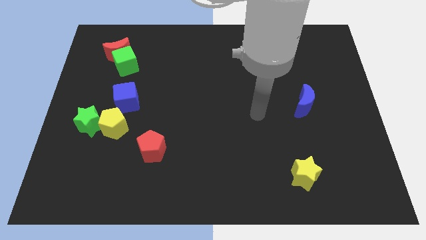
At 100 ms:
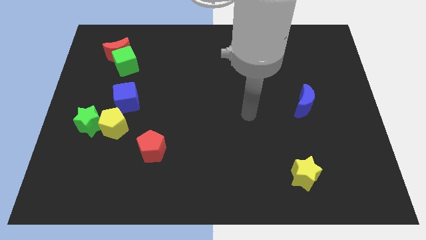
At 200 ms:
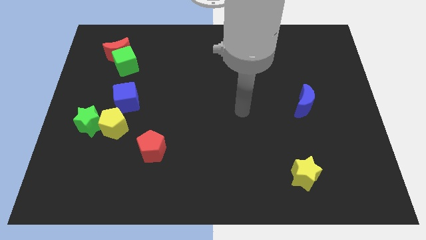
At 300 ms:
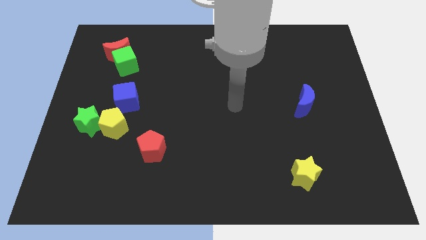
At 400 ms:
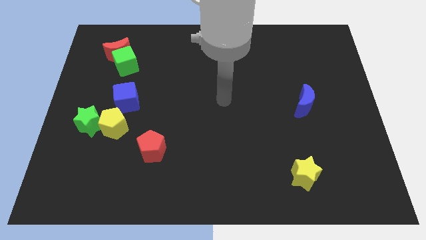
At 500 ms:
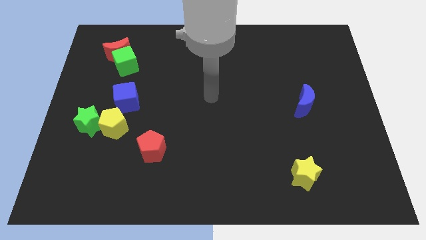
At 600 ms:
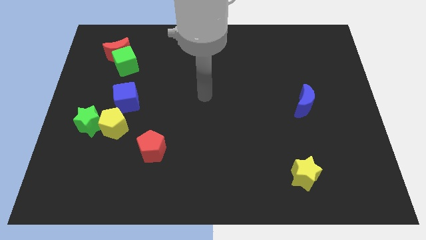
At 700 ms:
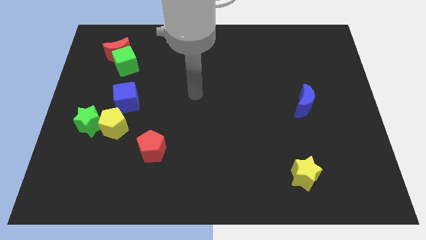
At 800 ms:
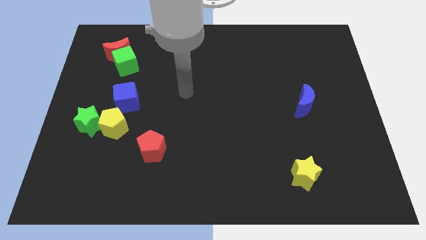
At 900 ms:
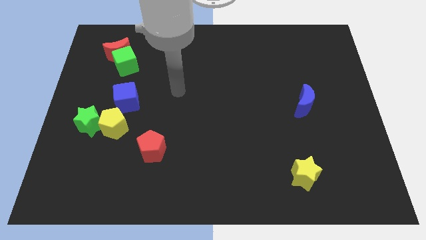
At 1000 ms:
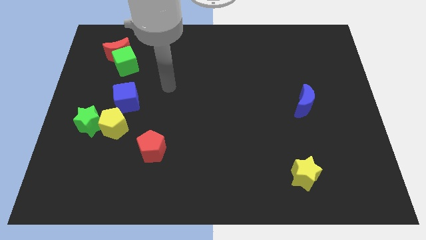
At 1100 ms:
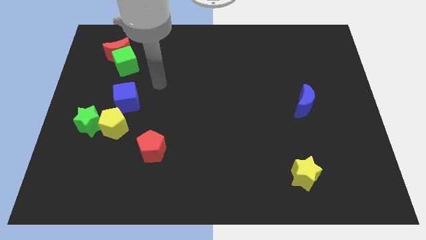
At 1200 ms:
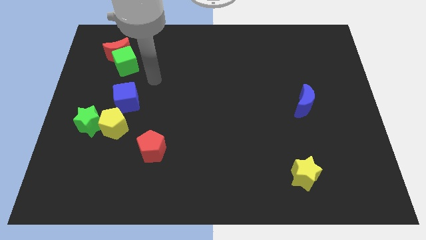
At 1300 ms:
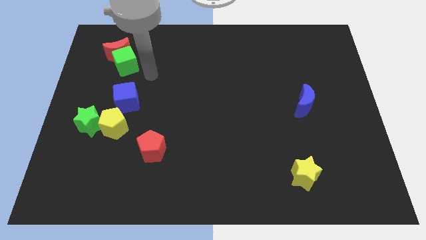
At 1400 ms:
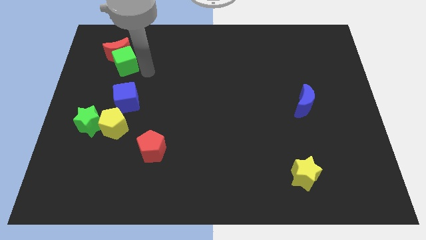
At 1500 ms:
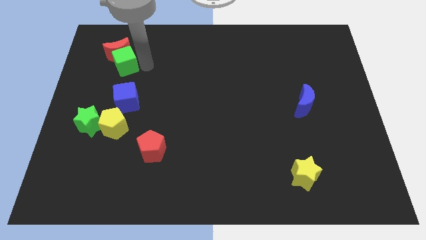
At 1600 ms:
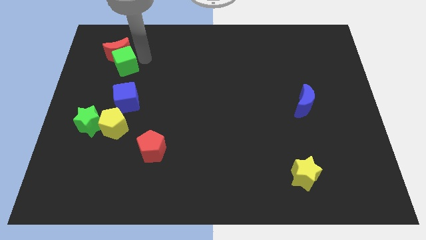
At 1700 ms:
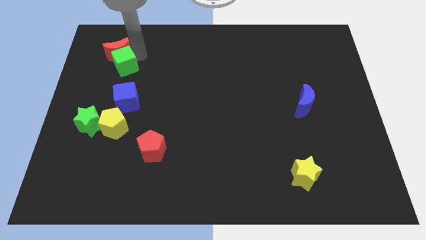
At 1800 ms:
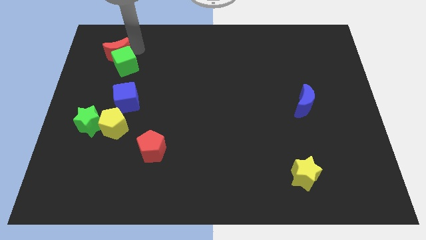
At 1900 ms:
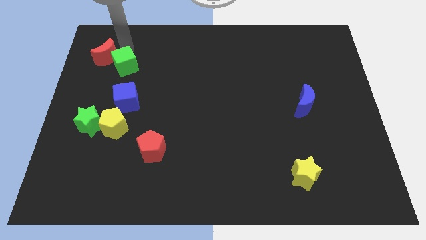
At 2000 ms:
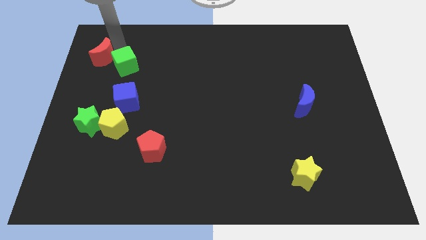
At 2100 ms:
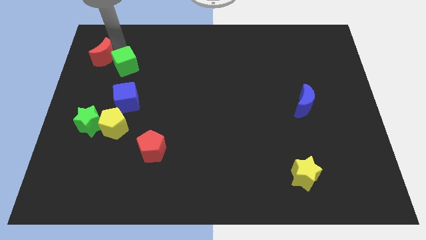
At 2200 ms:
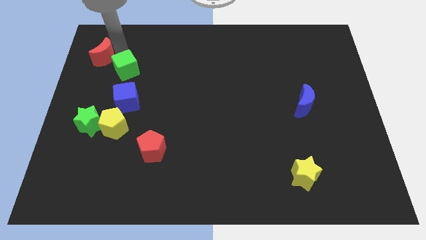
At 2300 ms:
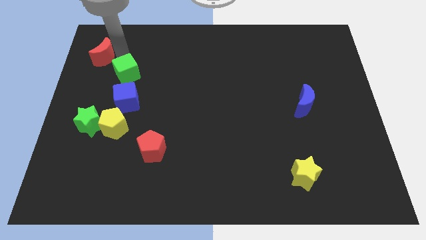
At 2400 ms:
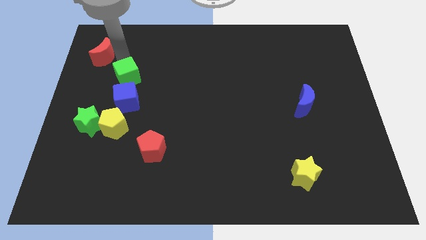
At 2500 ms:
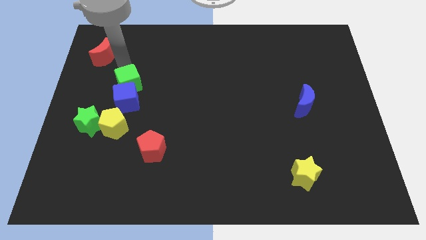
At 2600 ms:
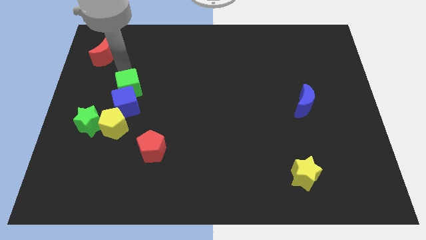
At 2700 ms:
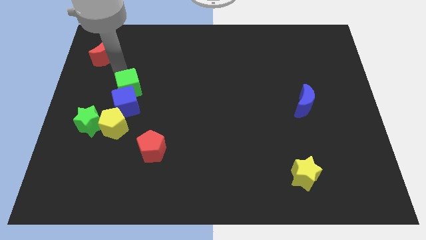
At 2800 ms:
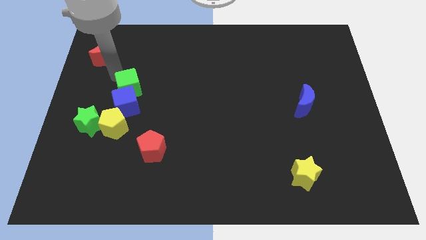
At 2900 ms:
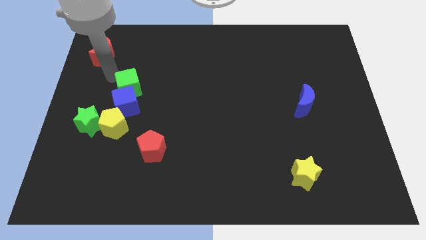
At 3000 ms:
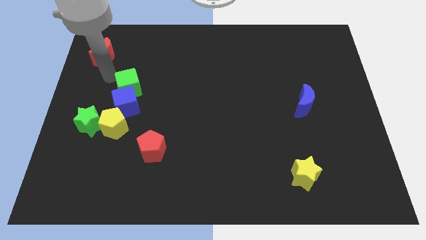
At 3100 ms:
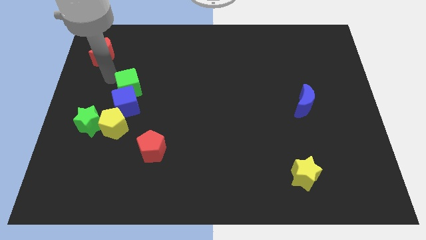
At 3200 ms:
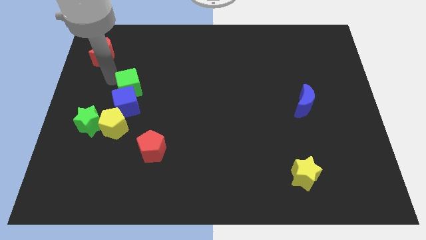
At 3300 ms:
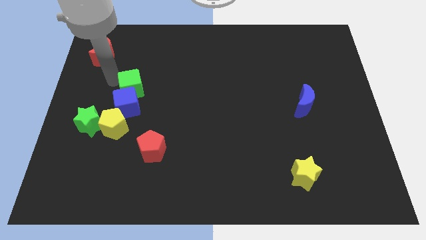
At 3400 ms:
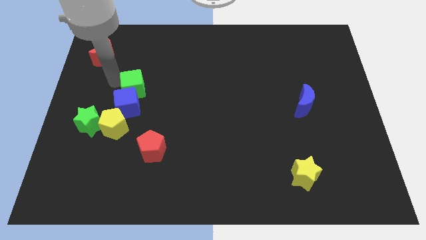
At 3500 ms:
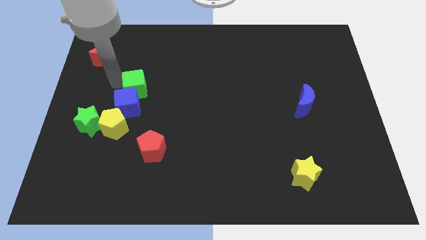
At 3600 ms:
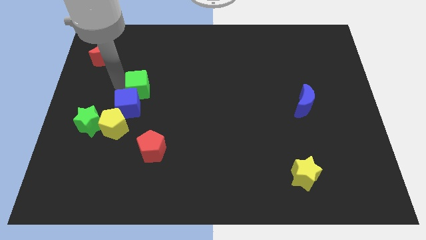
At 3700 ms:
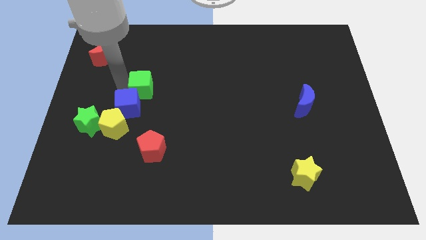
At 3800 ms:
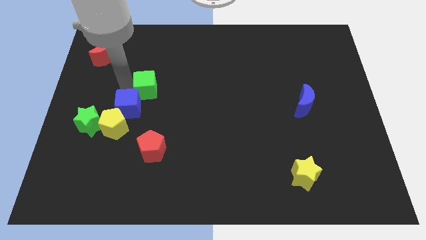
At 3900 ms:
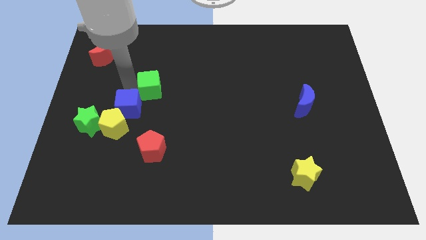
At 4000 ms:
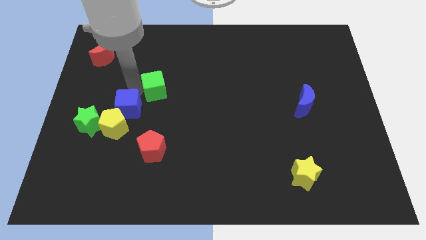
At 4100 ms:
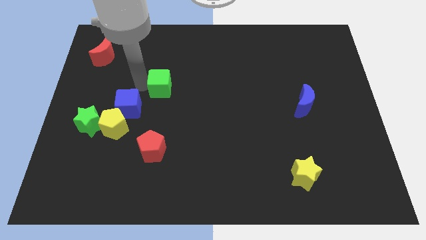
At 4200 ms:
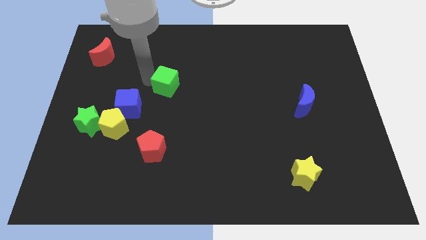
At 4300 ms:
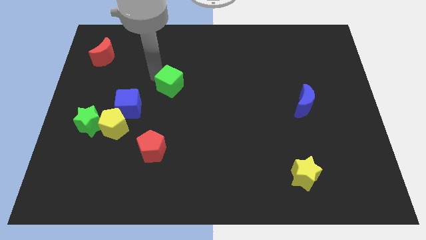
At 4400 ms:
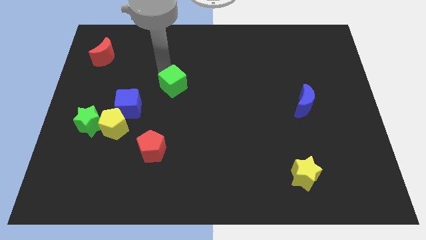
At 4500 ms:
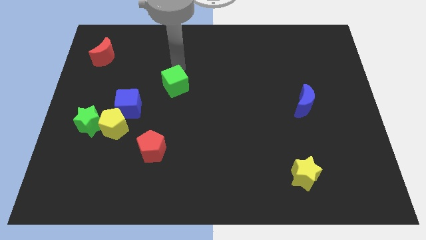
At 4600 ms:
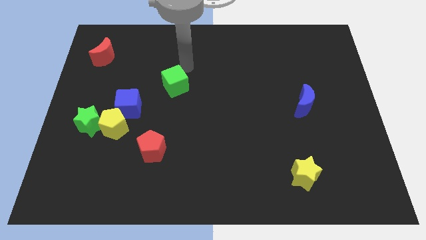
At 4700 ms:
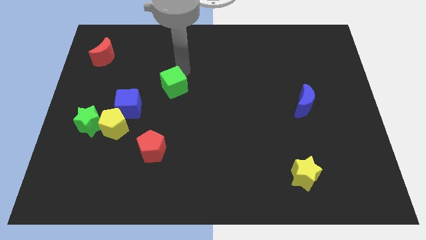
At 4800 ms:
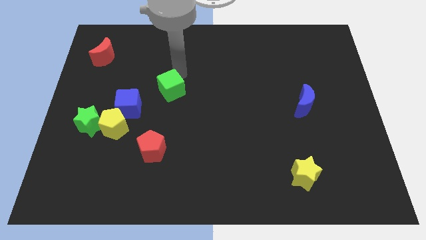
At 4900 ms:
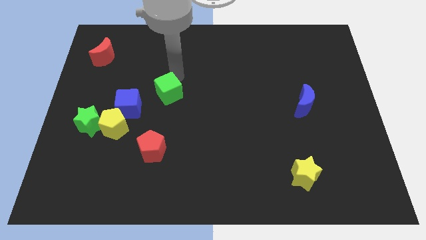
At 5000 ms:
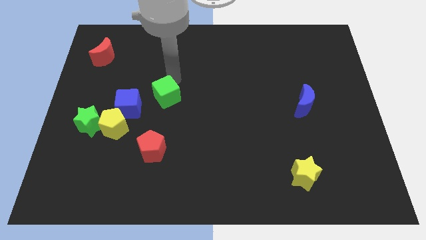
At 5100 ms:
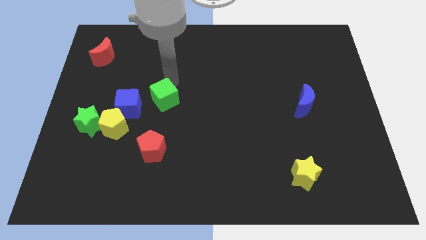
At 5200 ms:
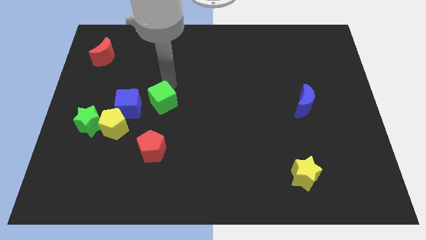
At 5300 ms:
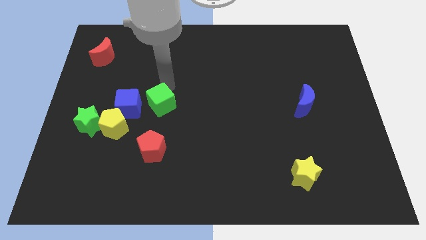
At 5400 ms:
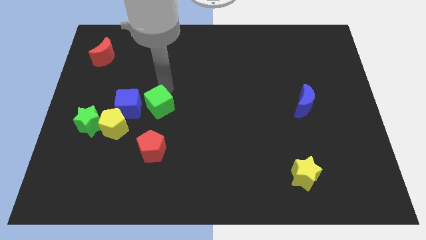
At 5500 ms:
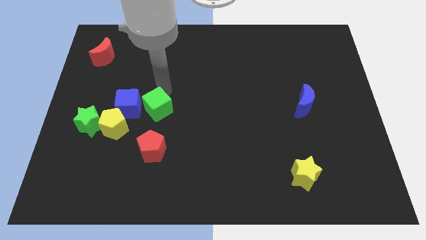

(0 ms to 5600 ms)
slide the green cube to the bottom right side of the blue cube

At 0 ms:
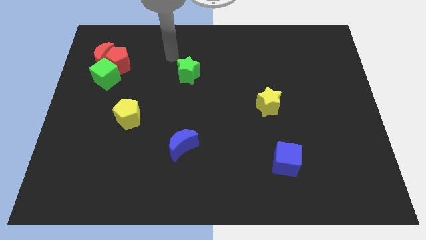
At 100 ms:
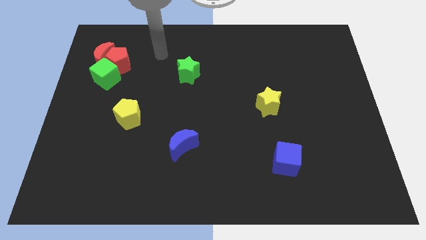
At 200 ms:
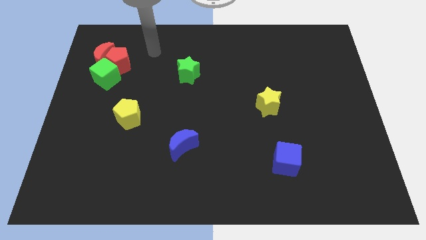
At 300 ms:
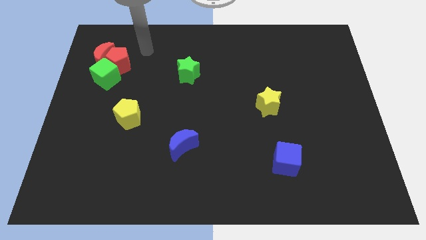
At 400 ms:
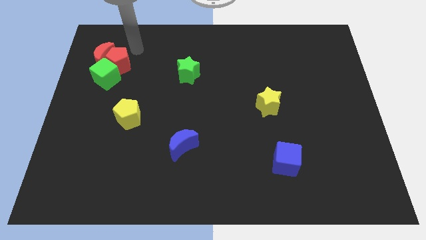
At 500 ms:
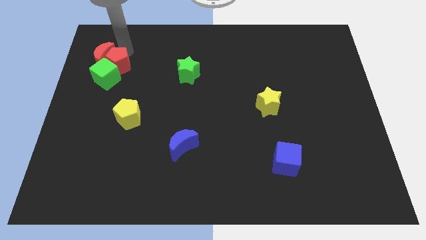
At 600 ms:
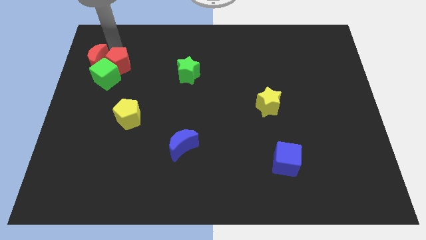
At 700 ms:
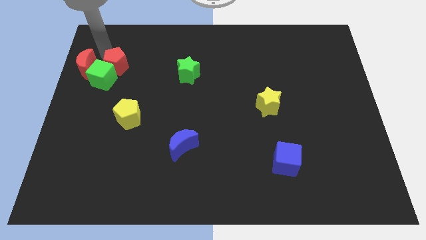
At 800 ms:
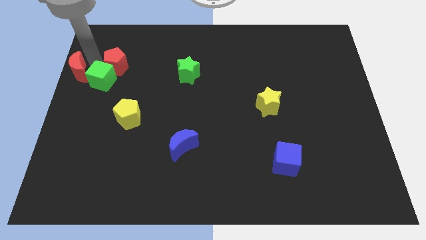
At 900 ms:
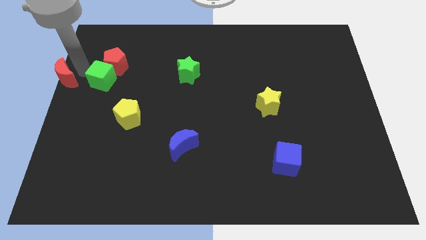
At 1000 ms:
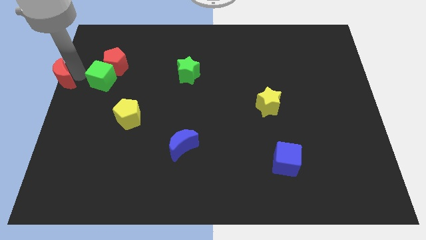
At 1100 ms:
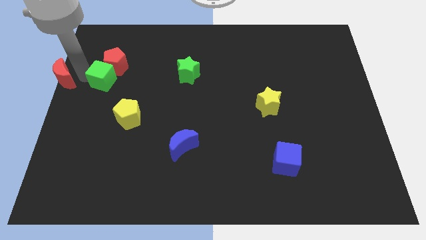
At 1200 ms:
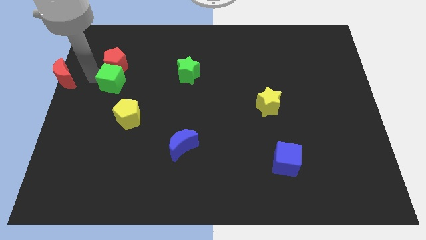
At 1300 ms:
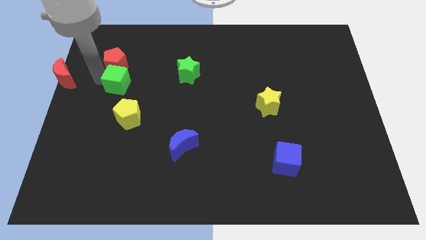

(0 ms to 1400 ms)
put the green cube to the top side of the yellow pentagon
